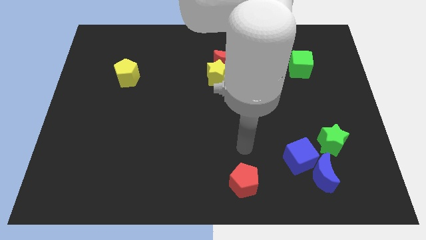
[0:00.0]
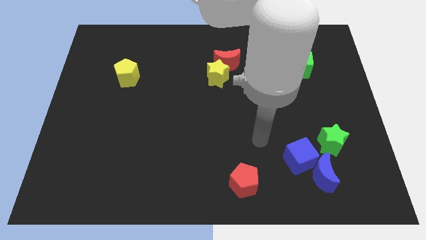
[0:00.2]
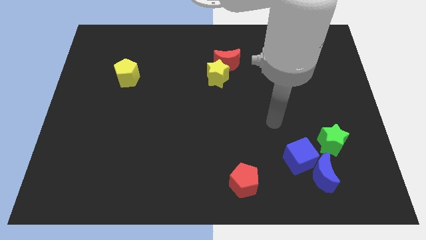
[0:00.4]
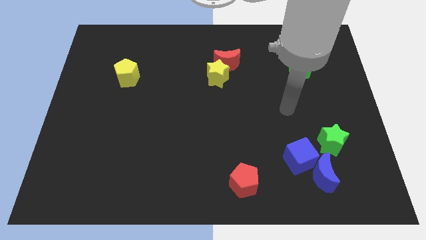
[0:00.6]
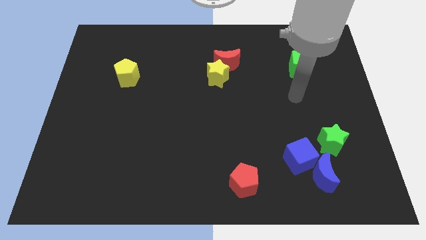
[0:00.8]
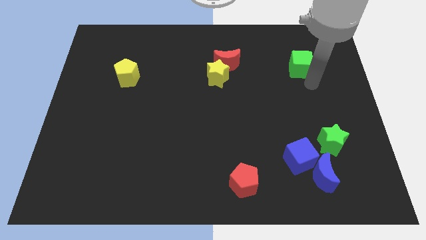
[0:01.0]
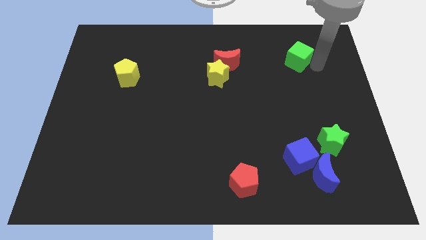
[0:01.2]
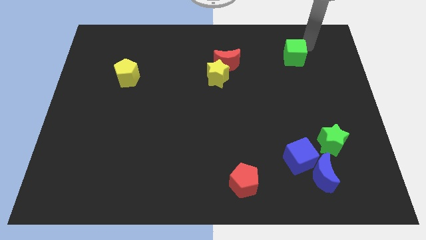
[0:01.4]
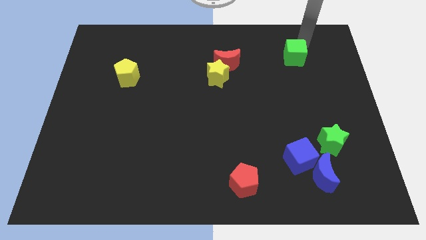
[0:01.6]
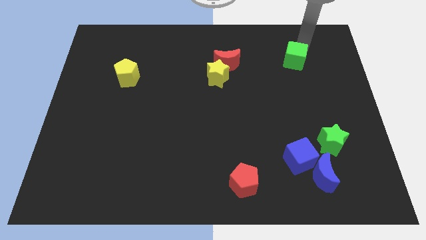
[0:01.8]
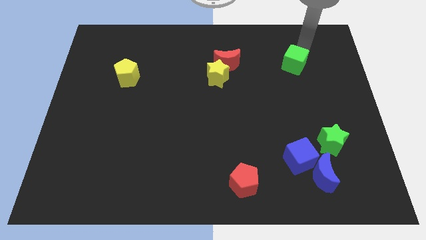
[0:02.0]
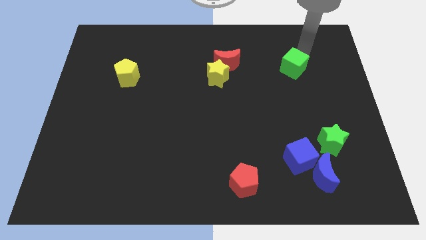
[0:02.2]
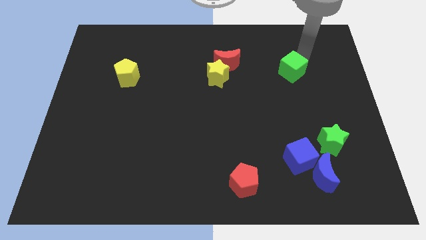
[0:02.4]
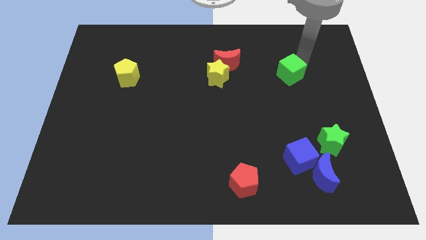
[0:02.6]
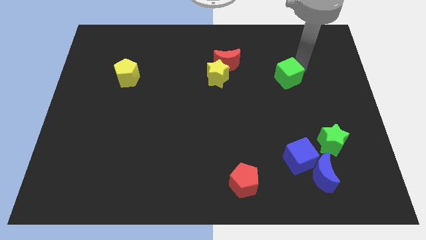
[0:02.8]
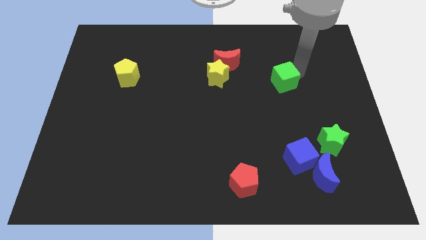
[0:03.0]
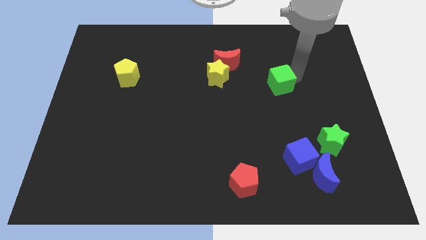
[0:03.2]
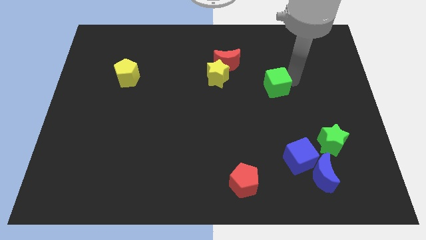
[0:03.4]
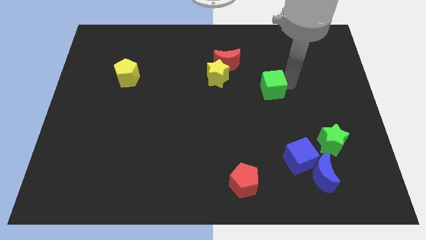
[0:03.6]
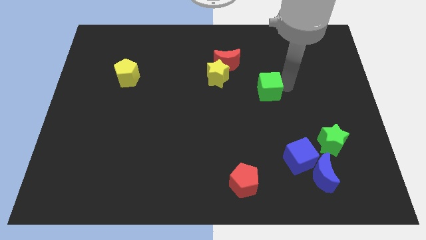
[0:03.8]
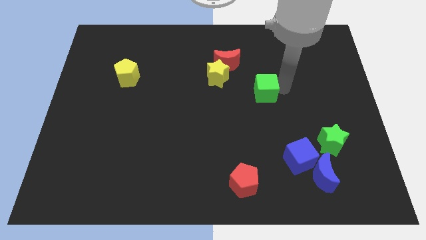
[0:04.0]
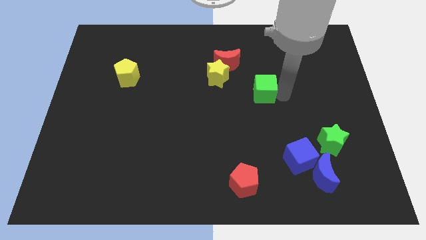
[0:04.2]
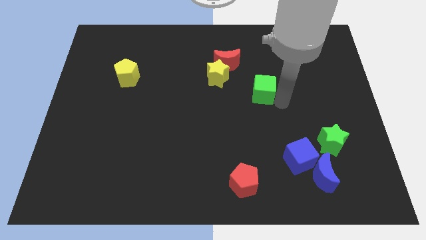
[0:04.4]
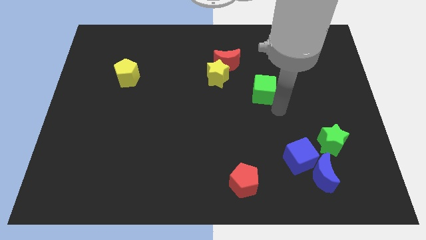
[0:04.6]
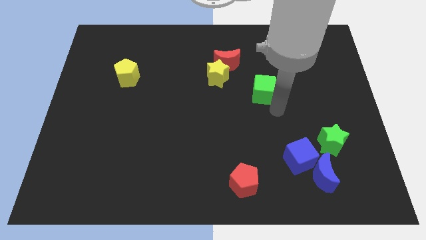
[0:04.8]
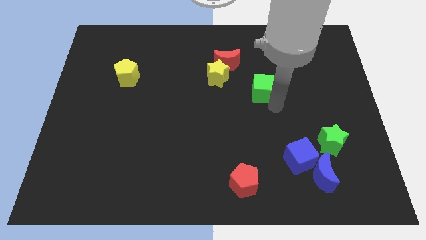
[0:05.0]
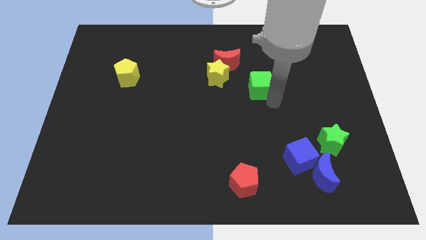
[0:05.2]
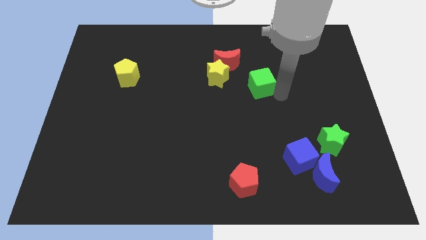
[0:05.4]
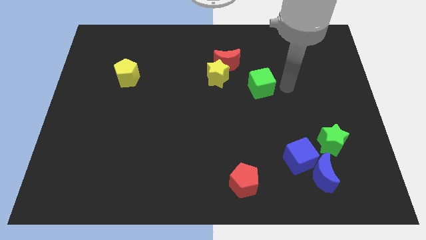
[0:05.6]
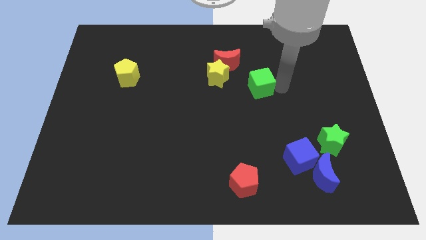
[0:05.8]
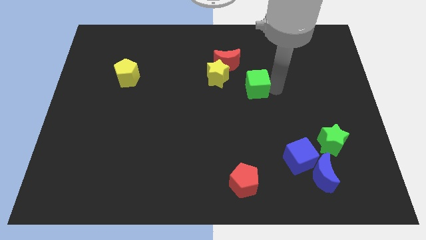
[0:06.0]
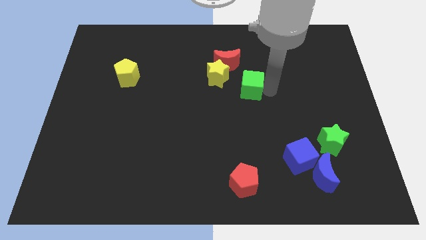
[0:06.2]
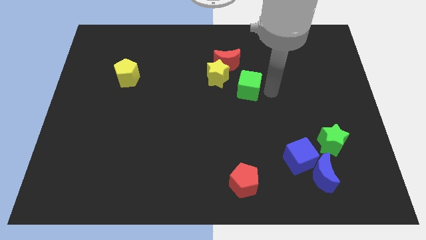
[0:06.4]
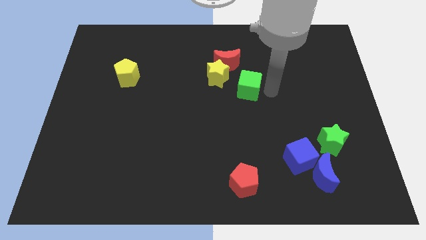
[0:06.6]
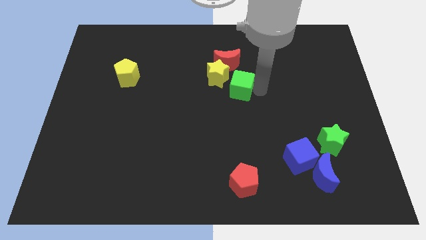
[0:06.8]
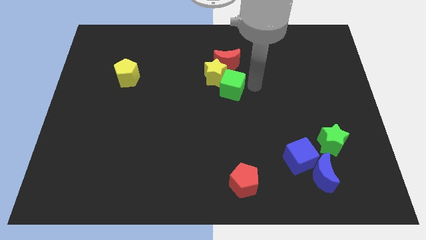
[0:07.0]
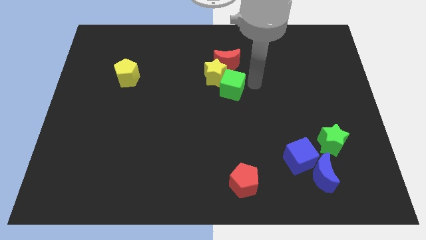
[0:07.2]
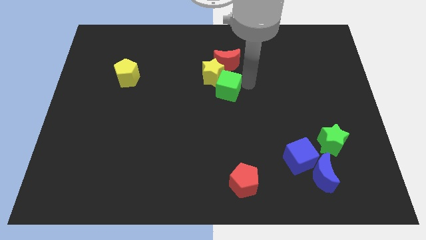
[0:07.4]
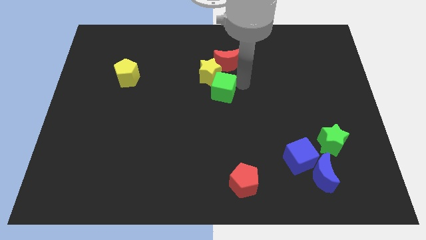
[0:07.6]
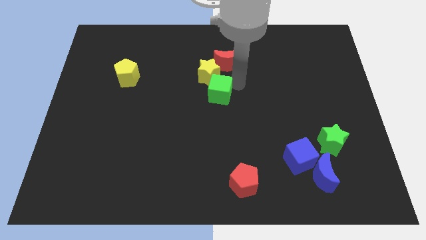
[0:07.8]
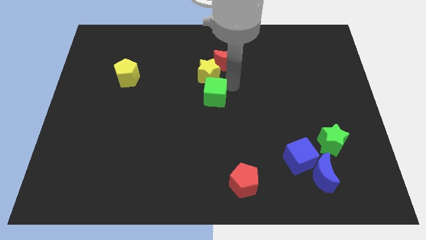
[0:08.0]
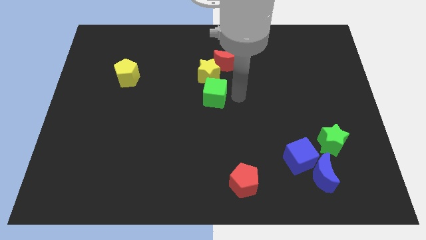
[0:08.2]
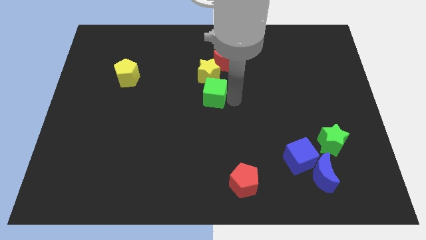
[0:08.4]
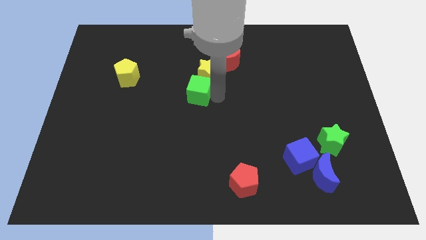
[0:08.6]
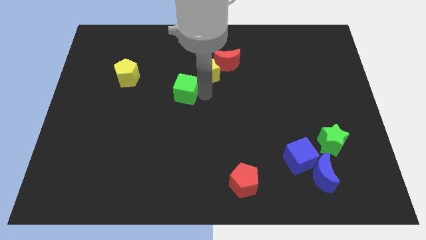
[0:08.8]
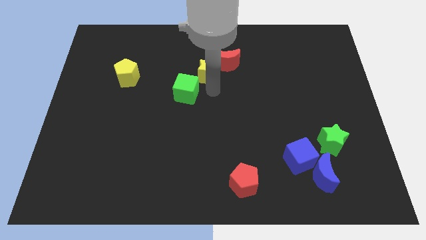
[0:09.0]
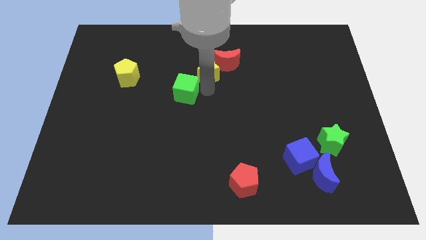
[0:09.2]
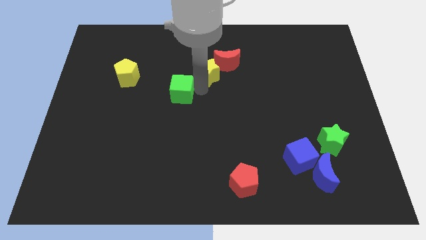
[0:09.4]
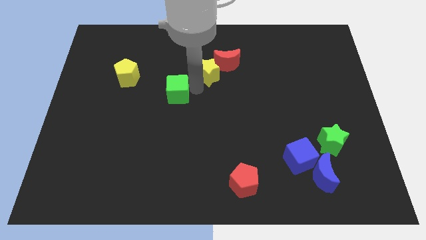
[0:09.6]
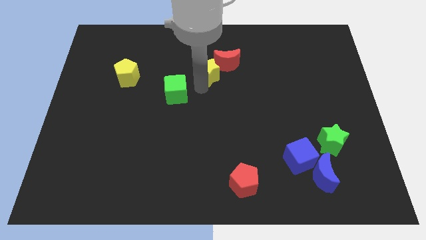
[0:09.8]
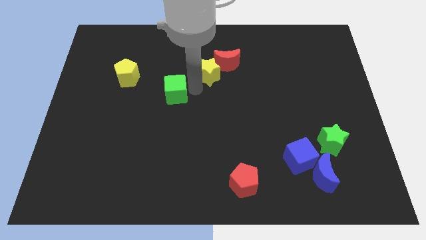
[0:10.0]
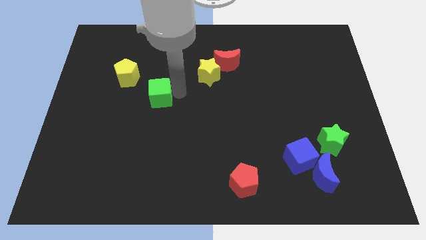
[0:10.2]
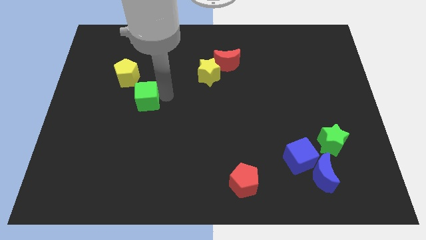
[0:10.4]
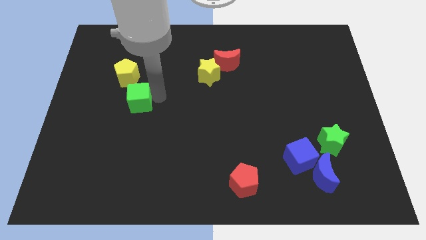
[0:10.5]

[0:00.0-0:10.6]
slide the green cube below the yellow pentagon

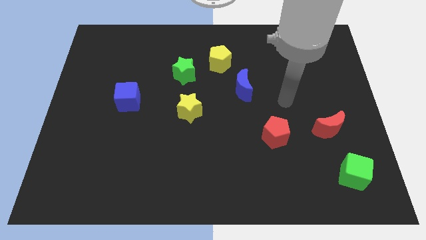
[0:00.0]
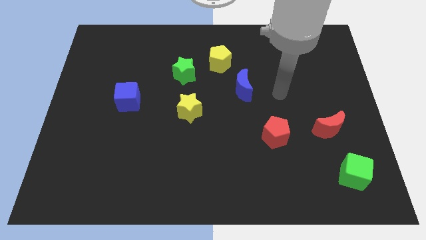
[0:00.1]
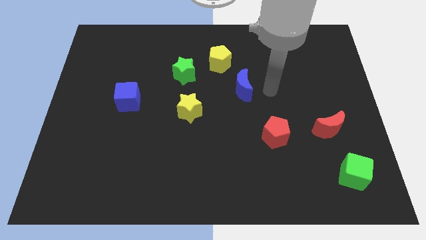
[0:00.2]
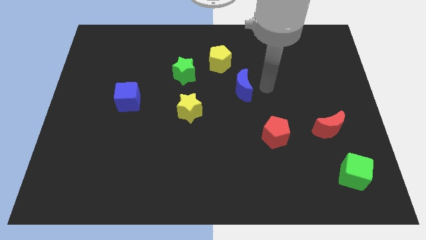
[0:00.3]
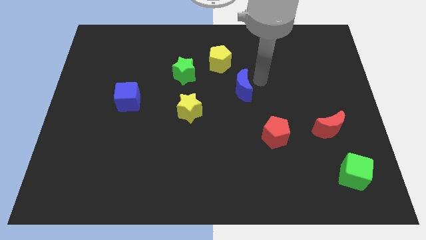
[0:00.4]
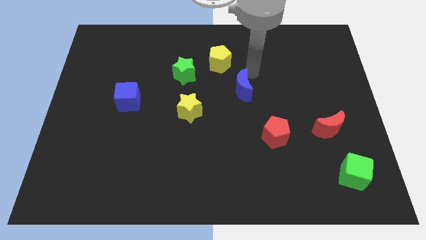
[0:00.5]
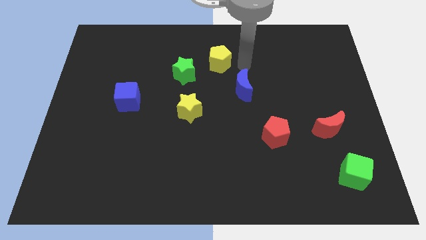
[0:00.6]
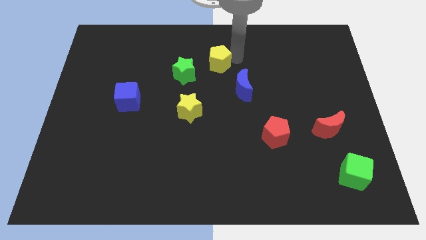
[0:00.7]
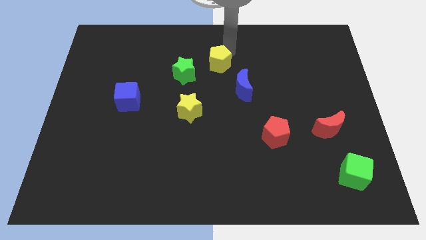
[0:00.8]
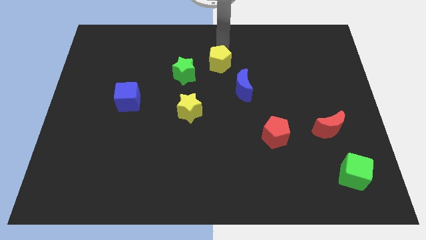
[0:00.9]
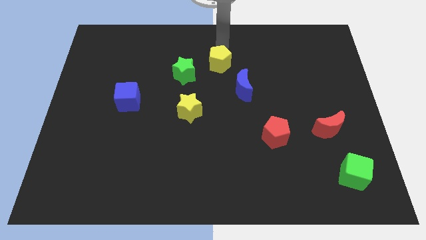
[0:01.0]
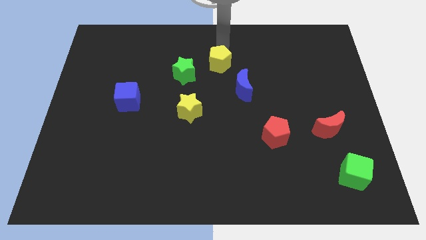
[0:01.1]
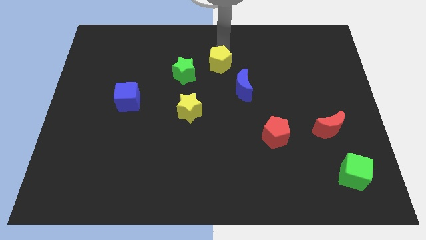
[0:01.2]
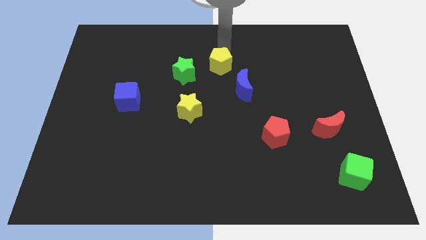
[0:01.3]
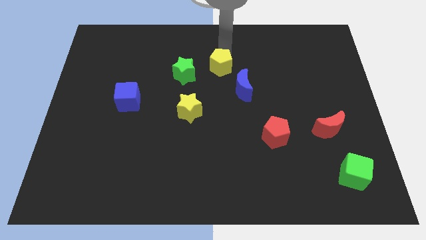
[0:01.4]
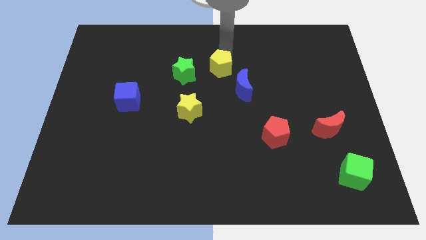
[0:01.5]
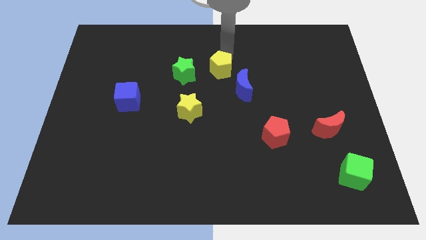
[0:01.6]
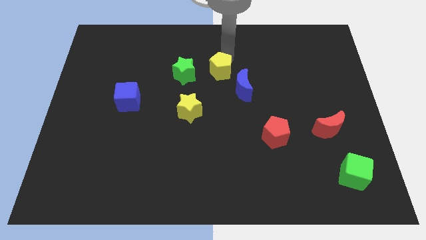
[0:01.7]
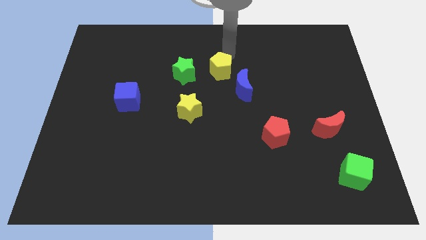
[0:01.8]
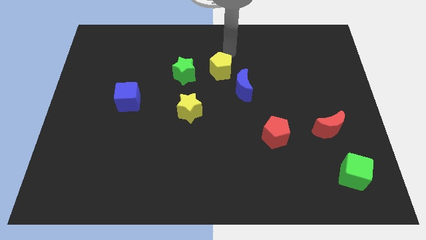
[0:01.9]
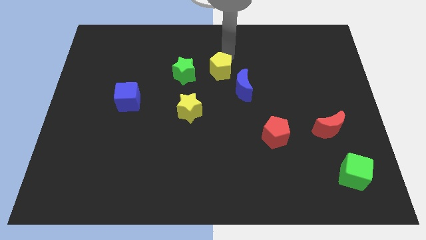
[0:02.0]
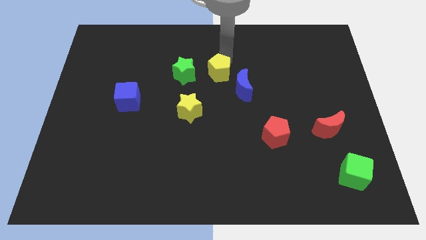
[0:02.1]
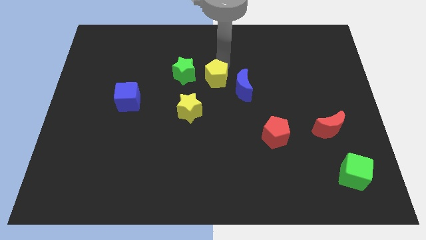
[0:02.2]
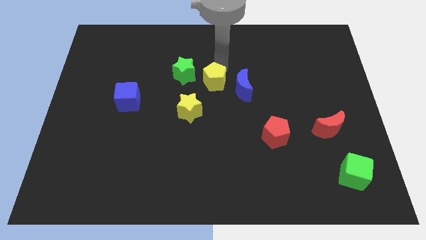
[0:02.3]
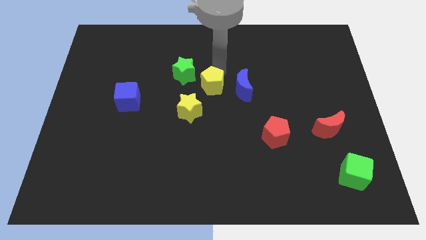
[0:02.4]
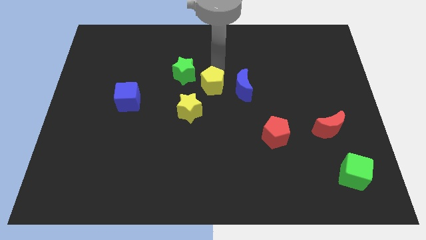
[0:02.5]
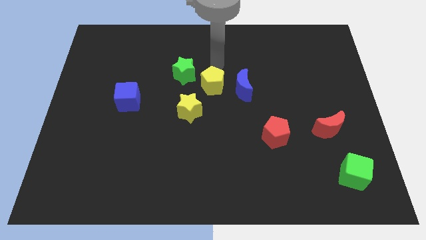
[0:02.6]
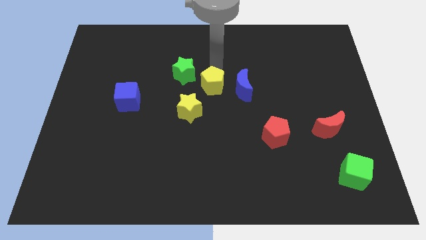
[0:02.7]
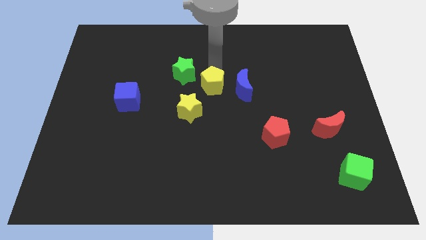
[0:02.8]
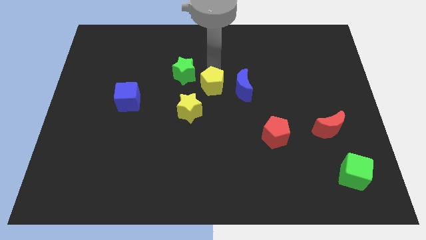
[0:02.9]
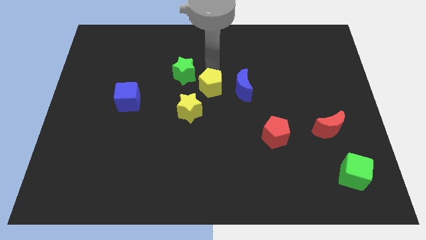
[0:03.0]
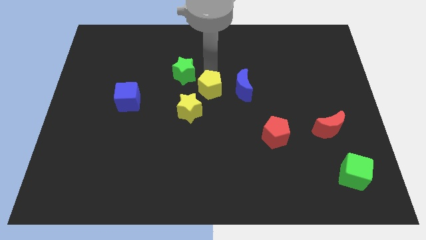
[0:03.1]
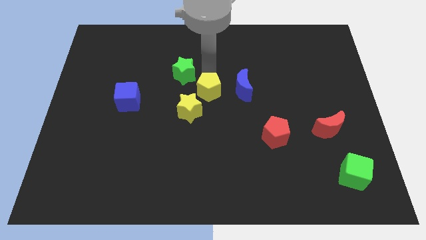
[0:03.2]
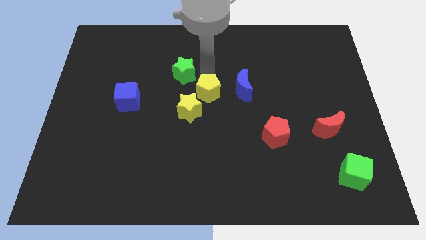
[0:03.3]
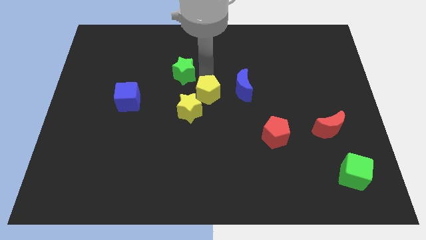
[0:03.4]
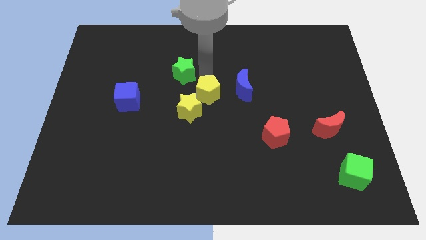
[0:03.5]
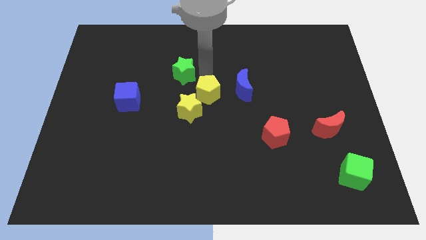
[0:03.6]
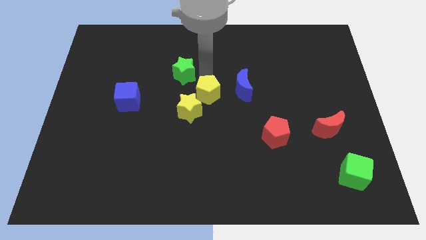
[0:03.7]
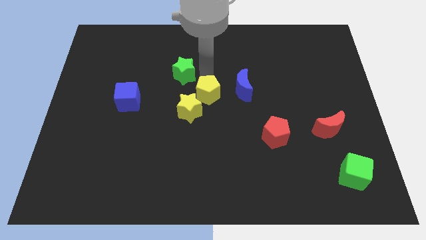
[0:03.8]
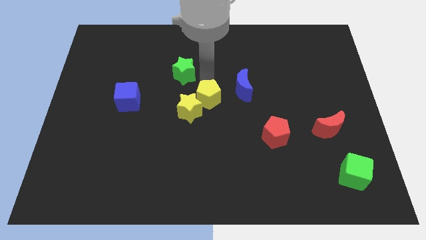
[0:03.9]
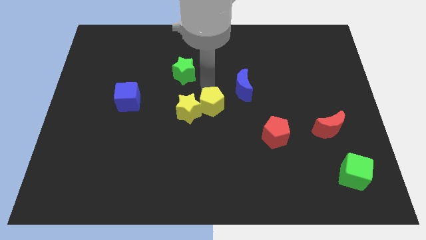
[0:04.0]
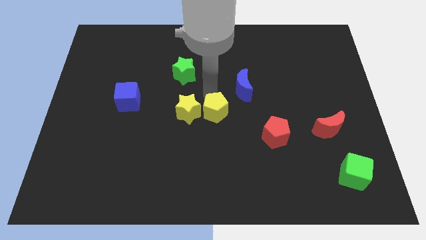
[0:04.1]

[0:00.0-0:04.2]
slide the yellow pentagon to the bottom right of the yellow star
